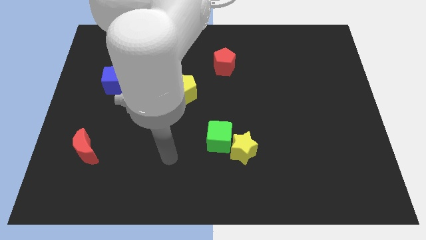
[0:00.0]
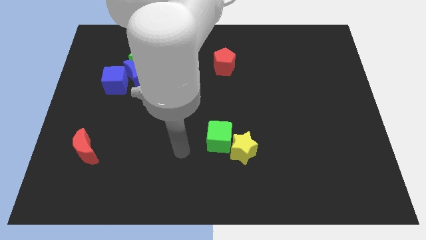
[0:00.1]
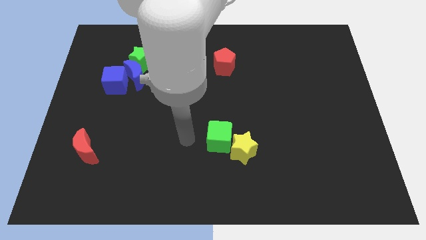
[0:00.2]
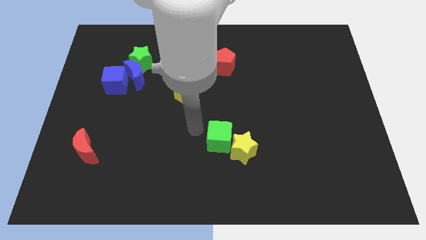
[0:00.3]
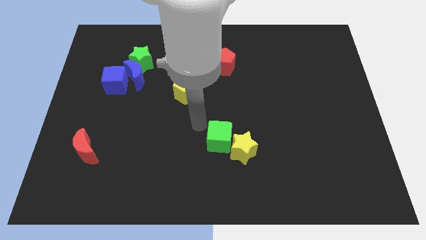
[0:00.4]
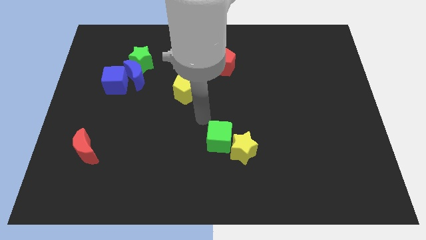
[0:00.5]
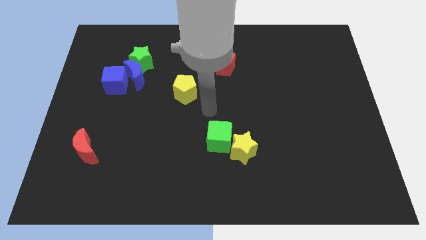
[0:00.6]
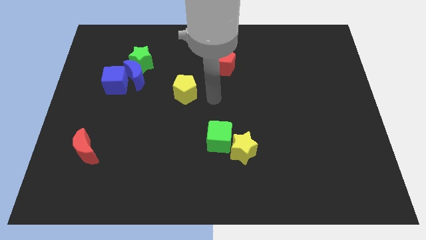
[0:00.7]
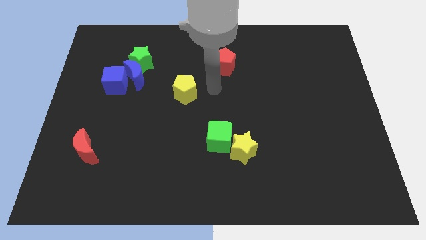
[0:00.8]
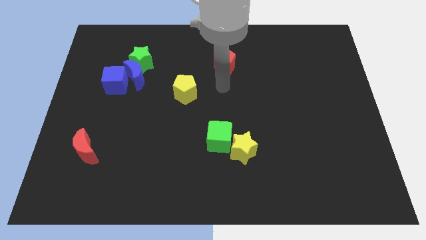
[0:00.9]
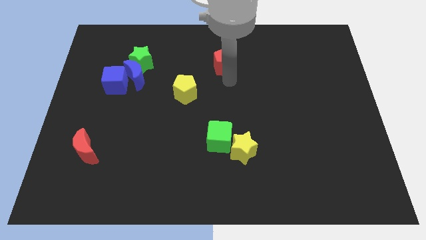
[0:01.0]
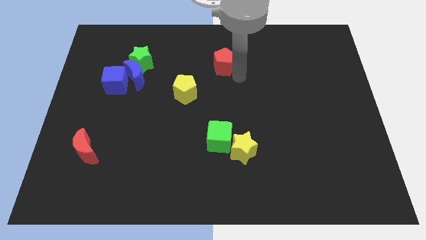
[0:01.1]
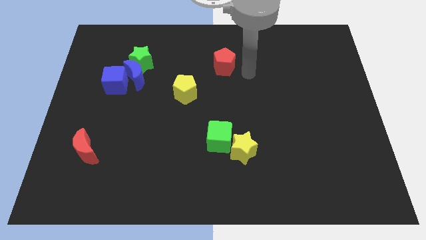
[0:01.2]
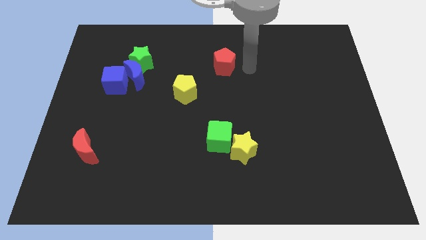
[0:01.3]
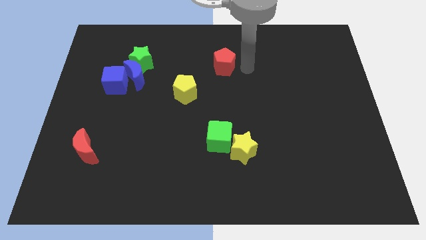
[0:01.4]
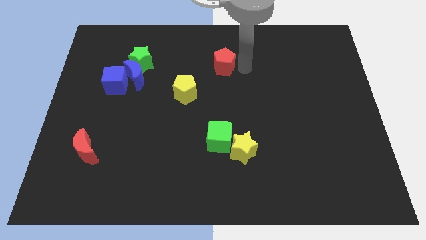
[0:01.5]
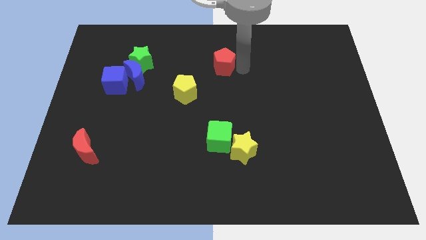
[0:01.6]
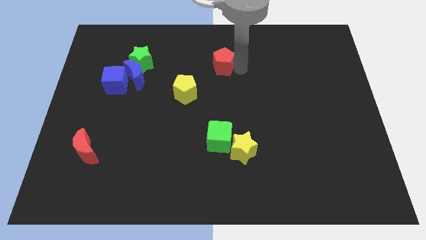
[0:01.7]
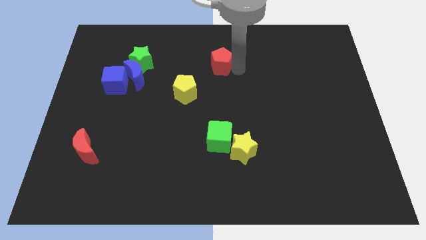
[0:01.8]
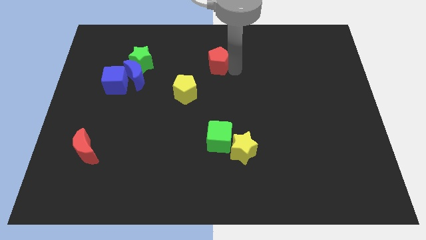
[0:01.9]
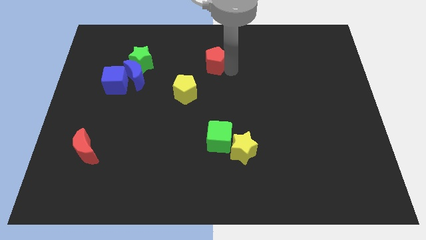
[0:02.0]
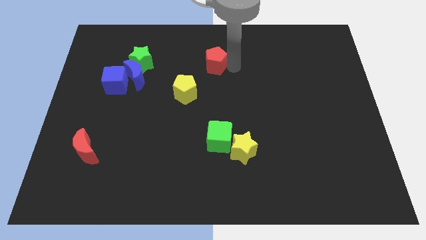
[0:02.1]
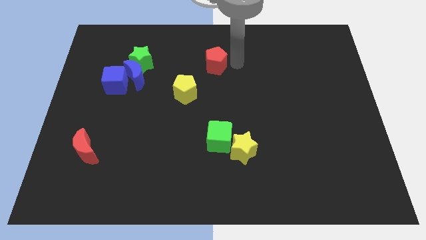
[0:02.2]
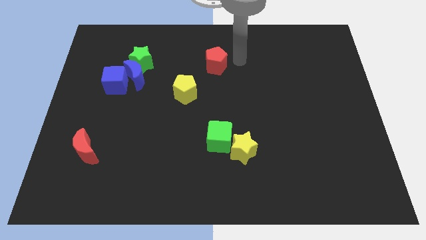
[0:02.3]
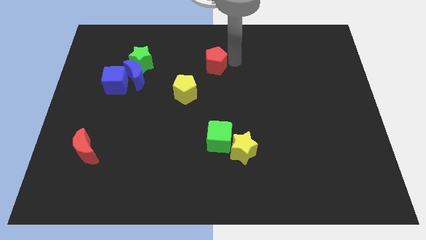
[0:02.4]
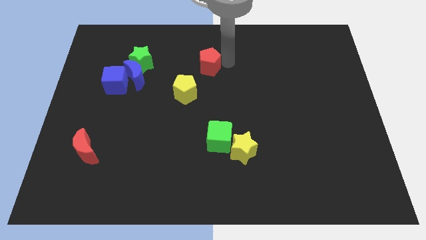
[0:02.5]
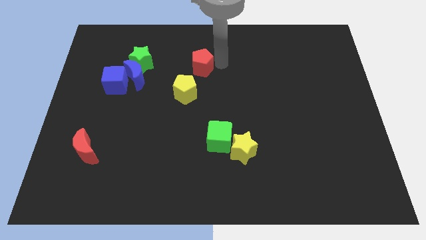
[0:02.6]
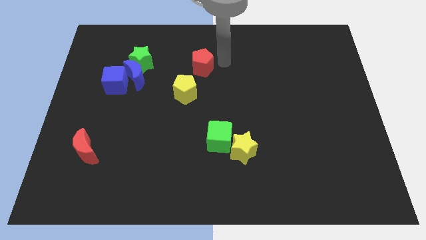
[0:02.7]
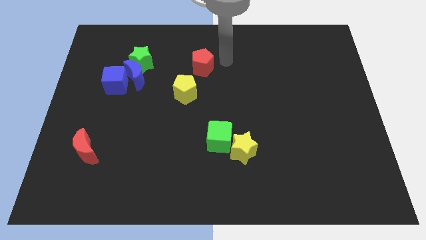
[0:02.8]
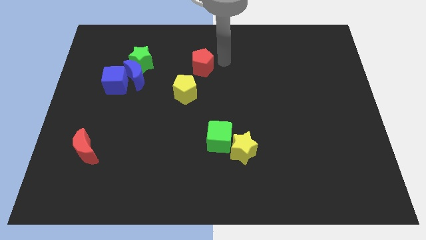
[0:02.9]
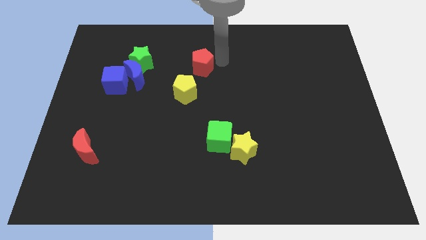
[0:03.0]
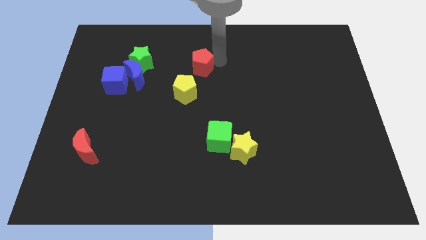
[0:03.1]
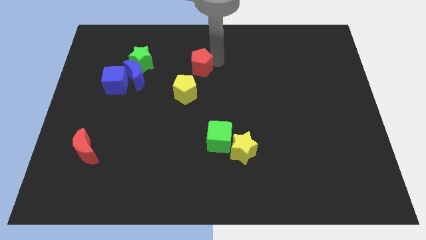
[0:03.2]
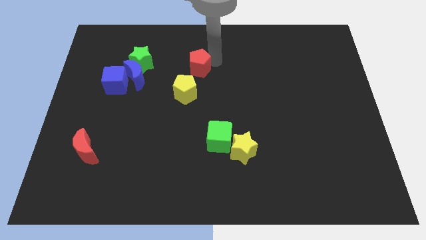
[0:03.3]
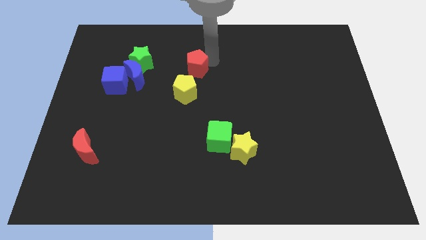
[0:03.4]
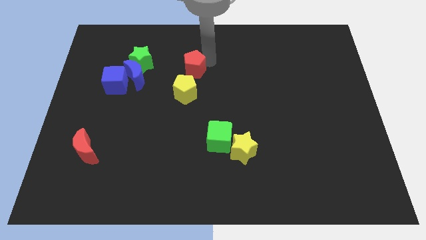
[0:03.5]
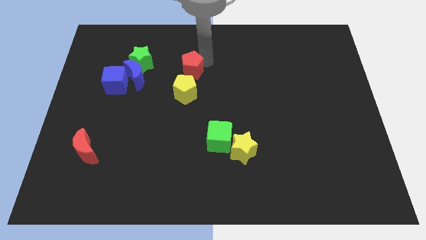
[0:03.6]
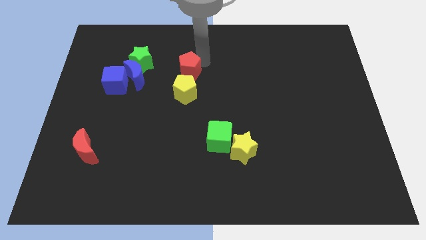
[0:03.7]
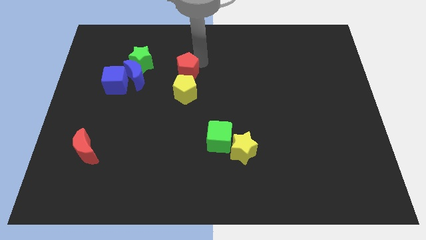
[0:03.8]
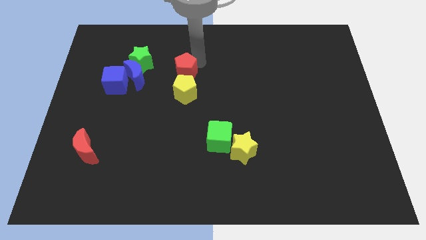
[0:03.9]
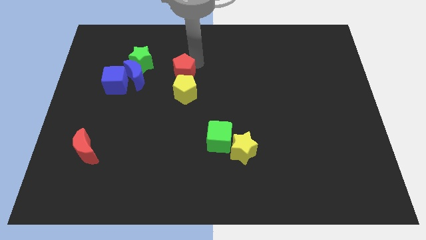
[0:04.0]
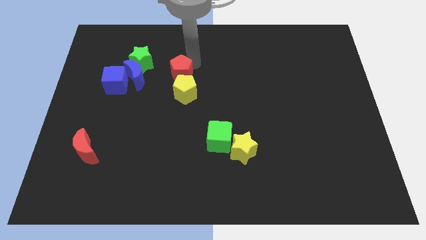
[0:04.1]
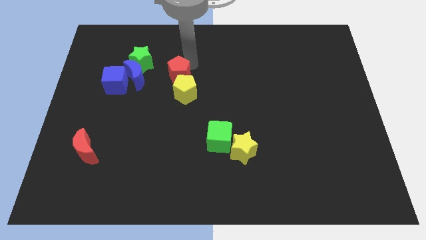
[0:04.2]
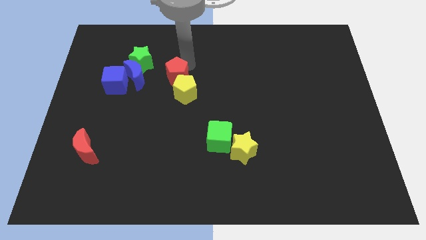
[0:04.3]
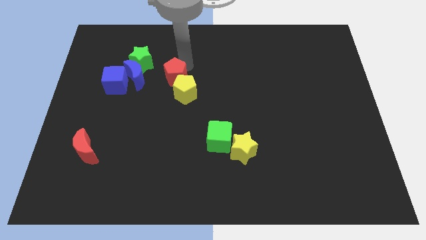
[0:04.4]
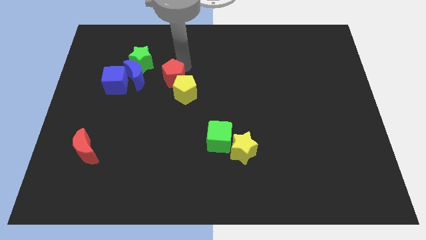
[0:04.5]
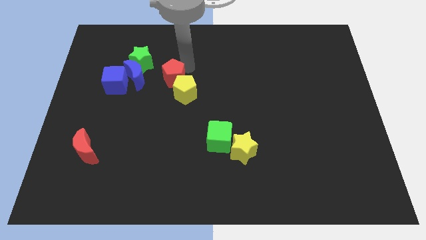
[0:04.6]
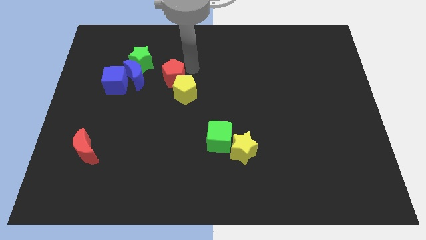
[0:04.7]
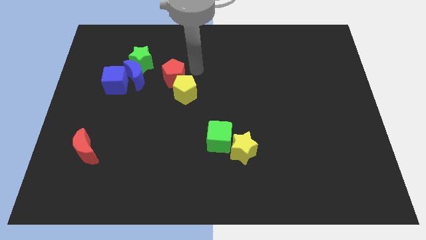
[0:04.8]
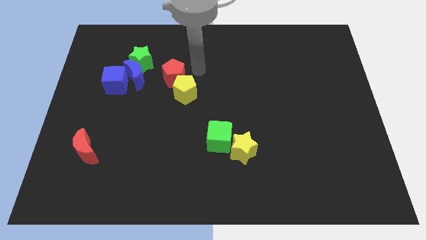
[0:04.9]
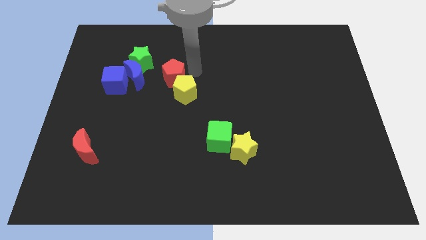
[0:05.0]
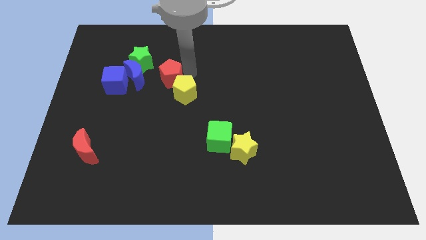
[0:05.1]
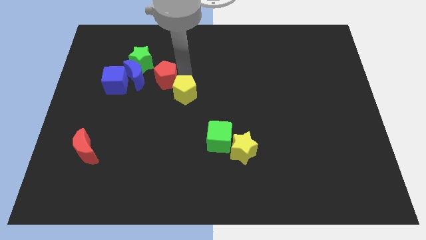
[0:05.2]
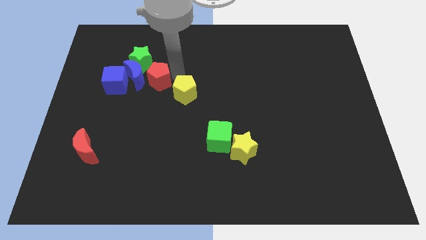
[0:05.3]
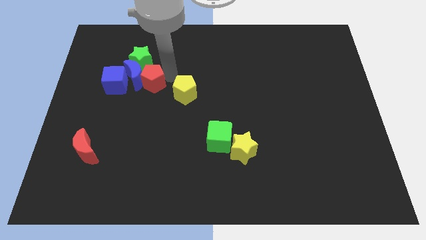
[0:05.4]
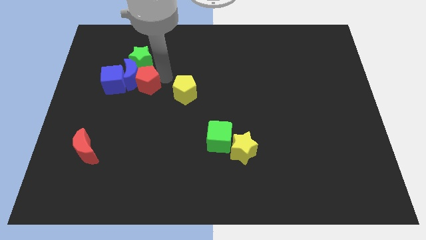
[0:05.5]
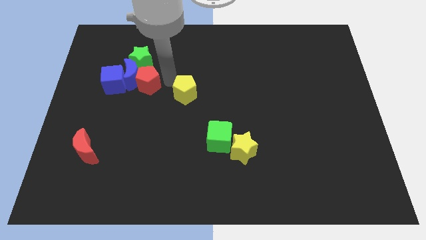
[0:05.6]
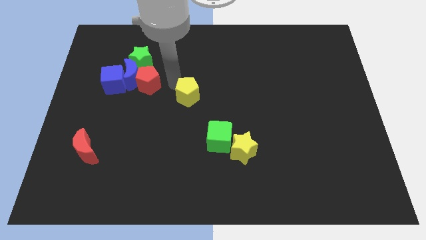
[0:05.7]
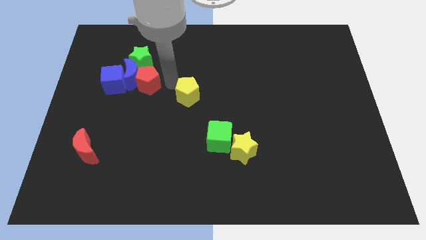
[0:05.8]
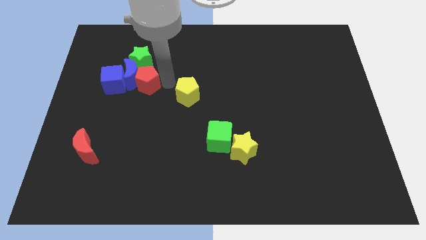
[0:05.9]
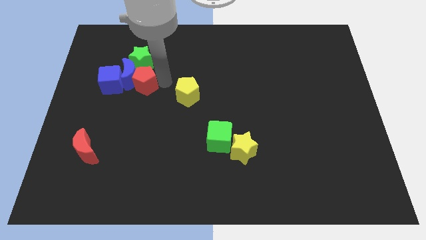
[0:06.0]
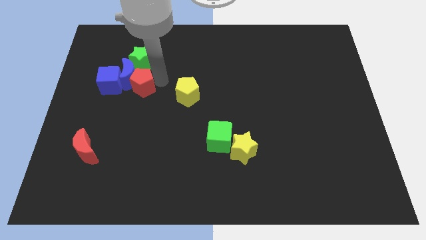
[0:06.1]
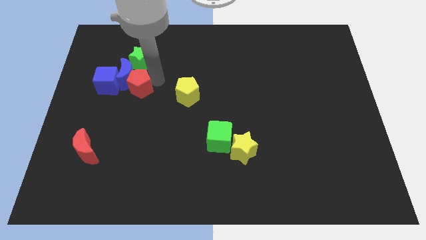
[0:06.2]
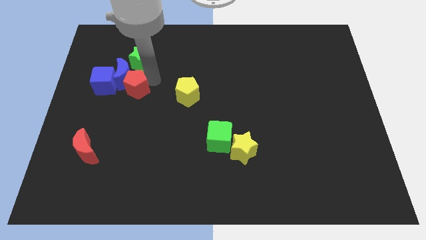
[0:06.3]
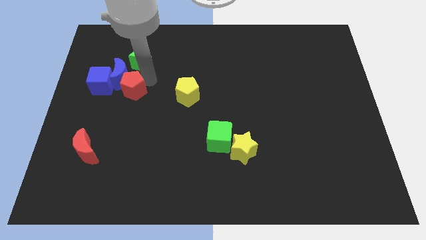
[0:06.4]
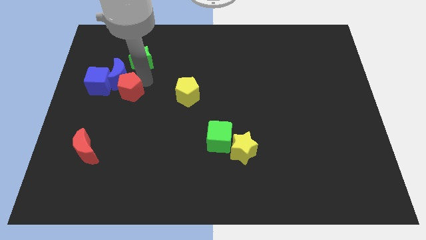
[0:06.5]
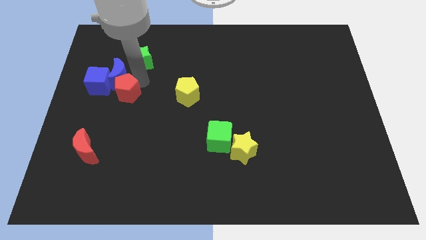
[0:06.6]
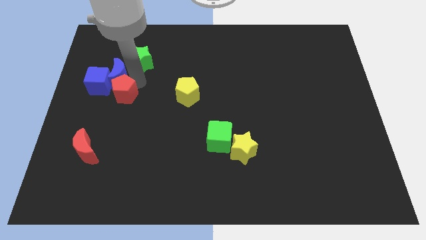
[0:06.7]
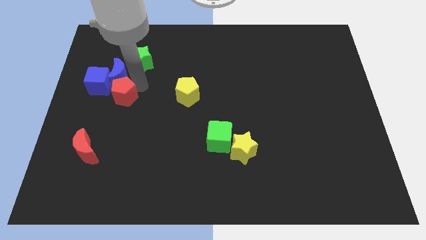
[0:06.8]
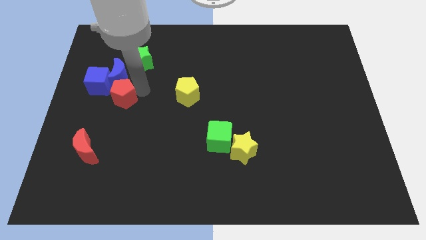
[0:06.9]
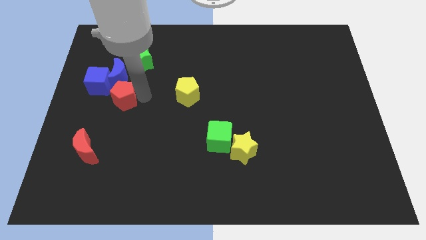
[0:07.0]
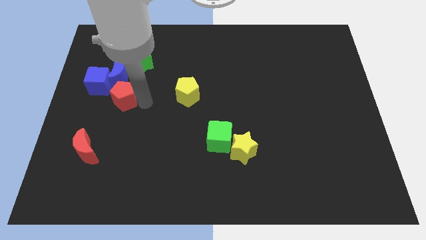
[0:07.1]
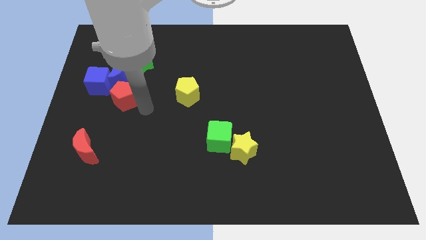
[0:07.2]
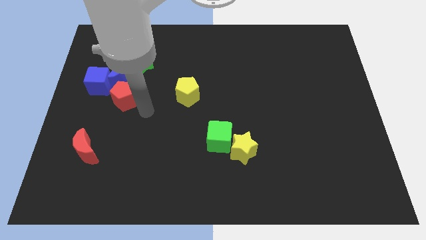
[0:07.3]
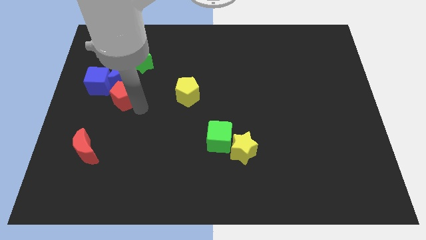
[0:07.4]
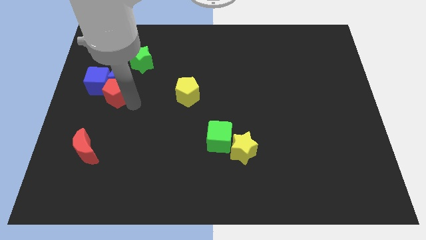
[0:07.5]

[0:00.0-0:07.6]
move the red pentagon towards the blue cube
